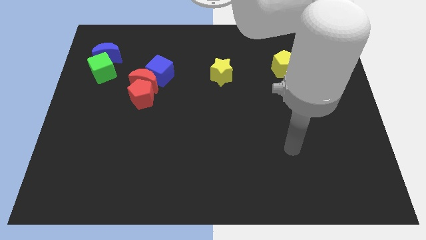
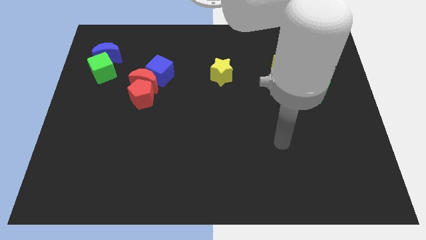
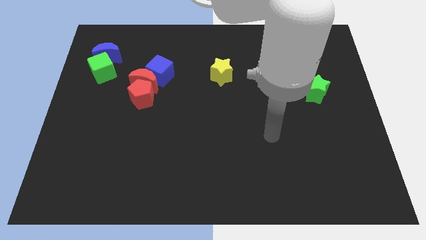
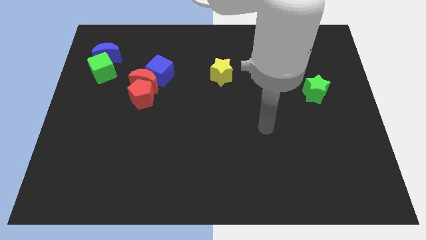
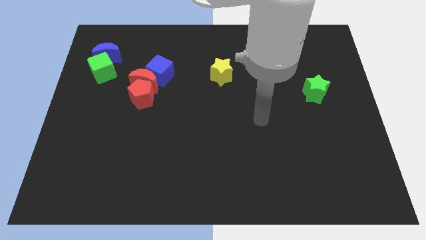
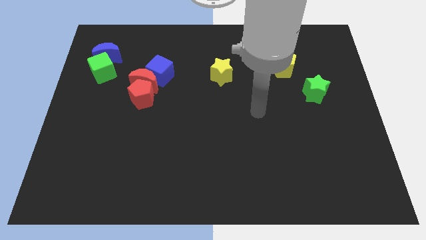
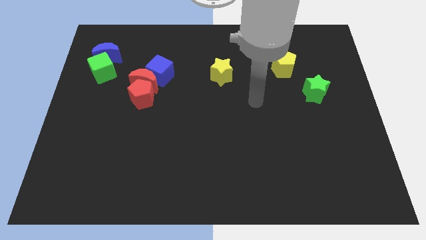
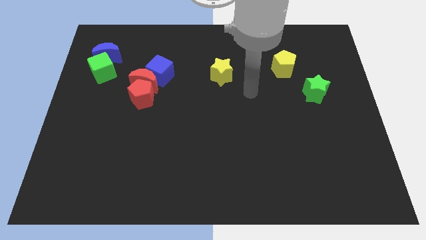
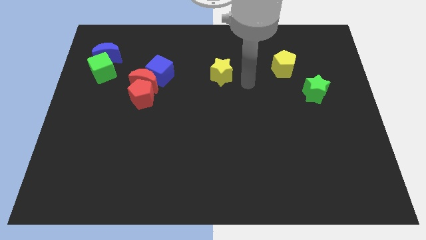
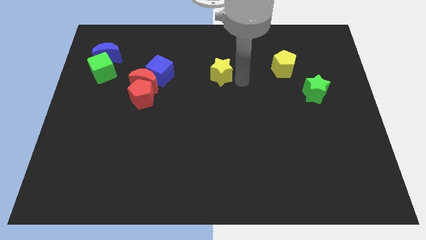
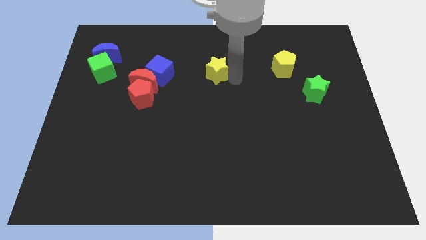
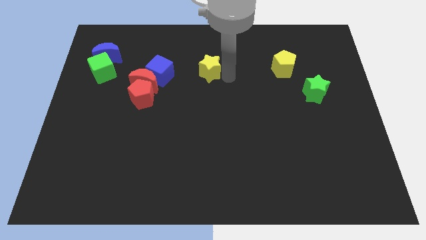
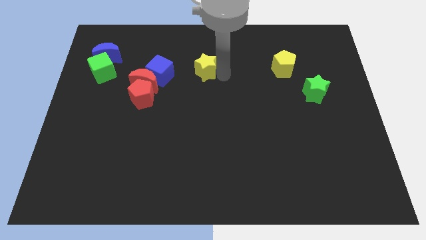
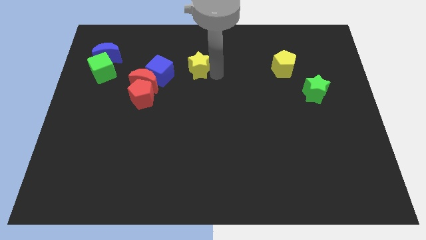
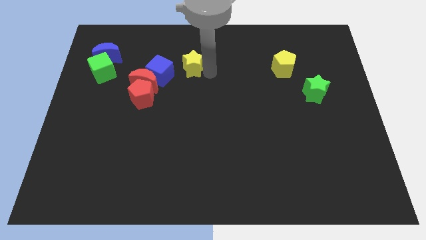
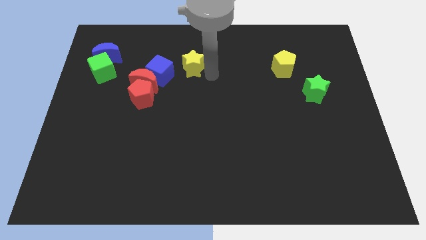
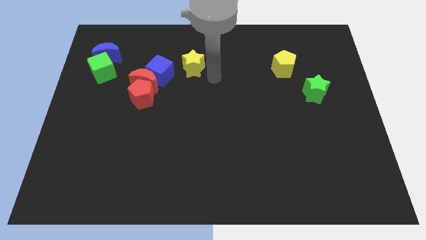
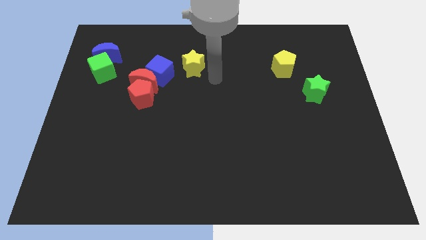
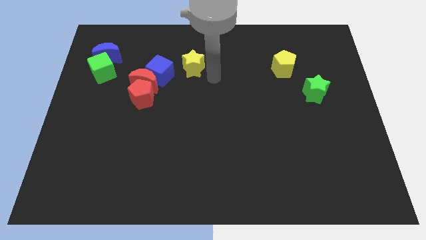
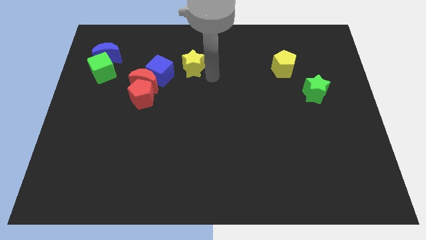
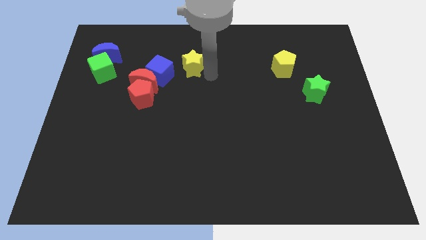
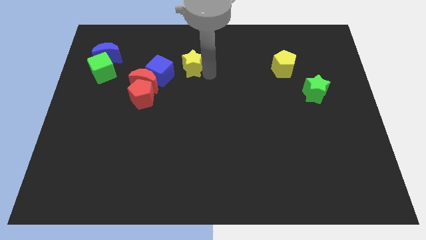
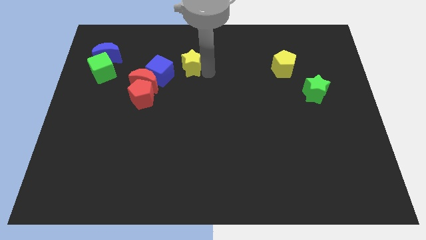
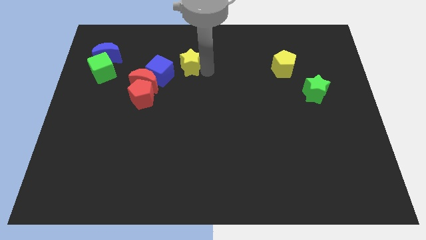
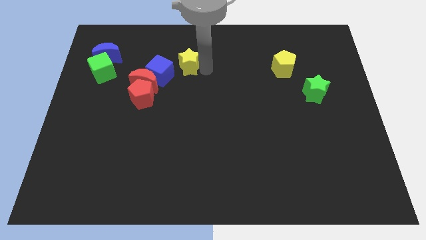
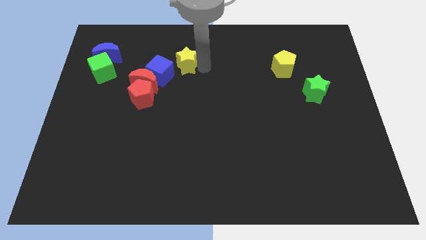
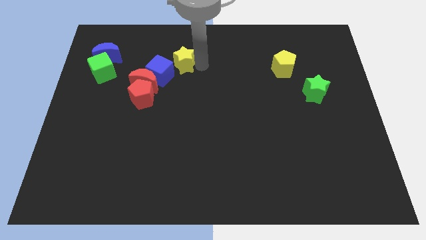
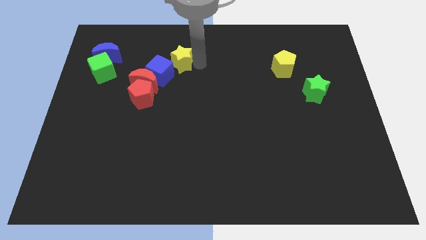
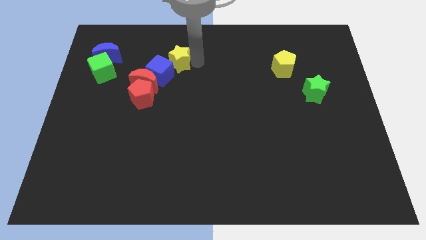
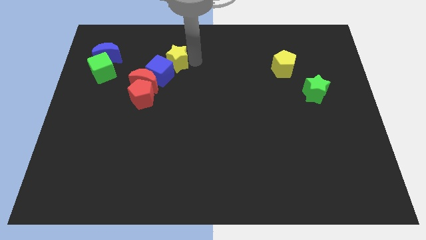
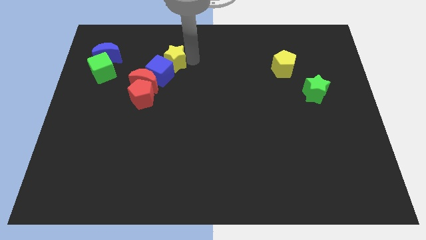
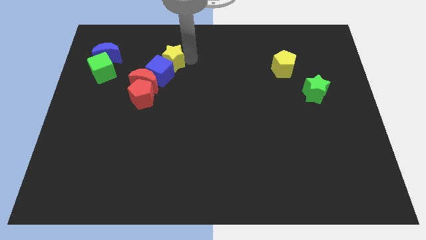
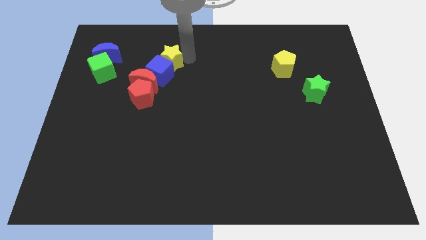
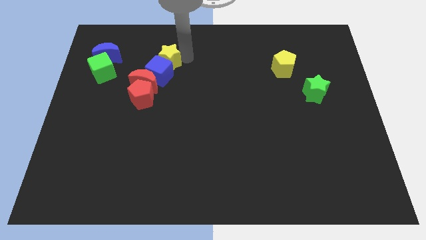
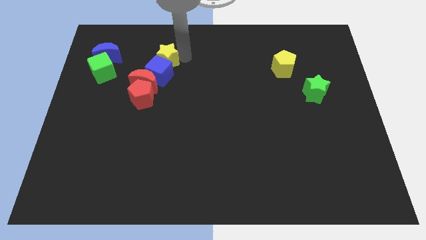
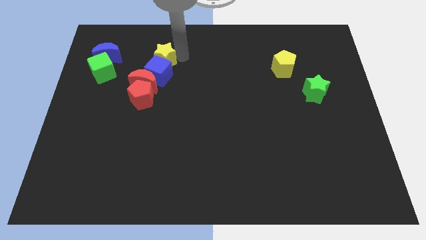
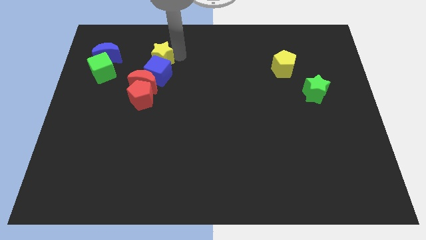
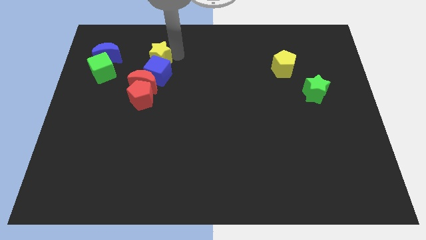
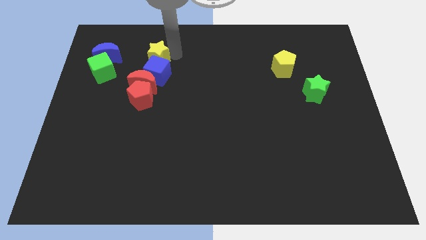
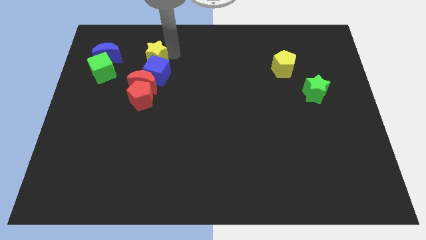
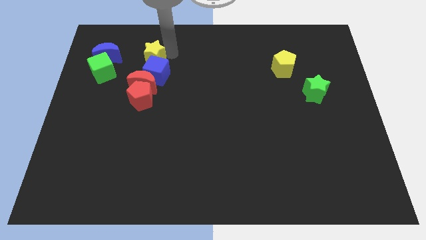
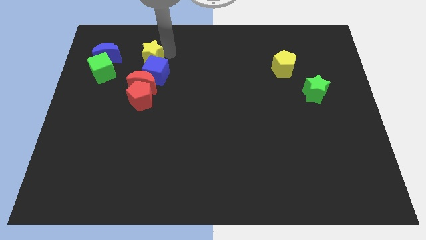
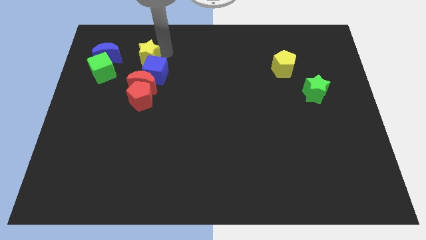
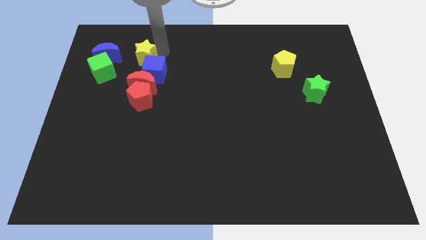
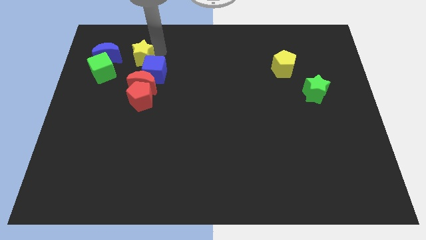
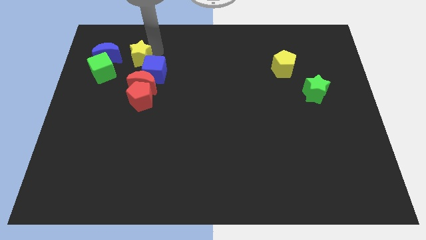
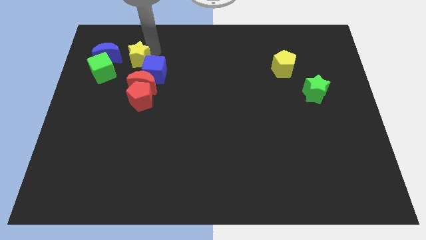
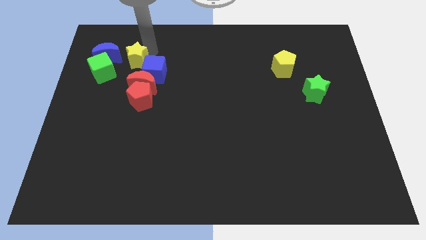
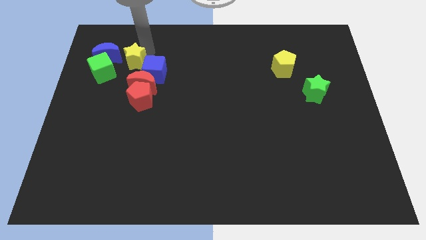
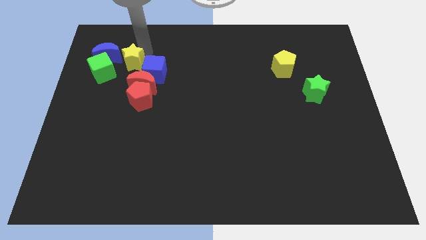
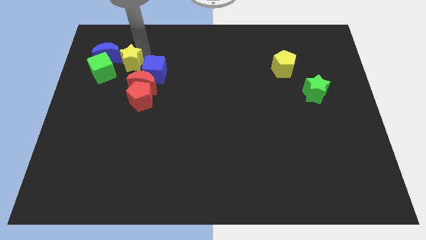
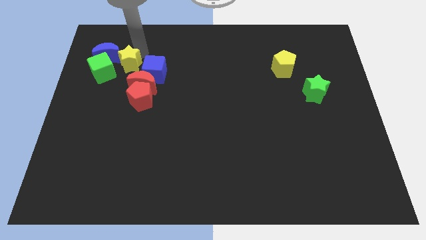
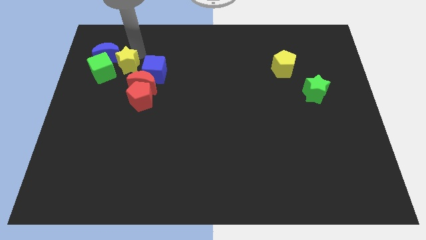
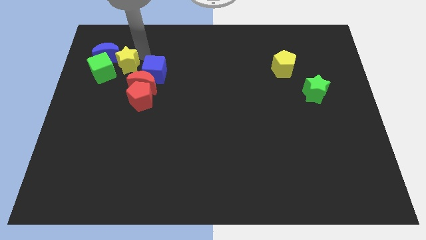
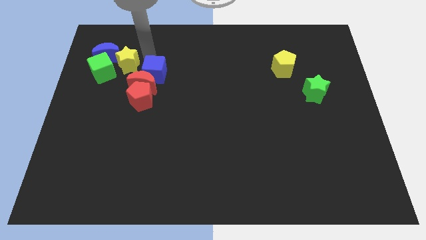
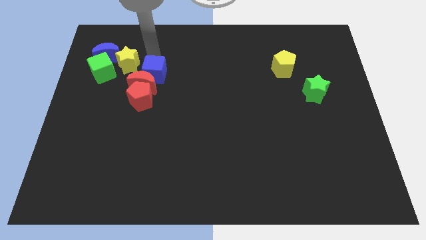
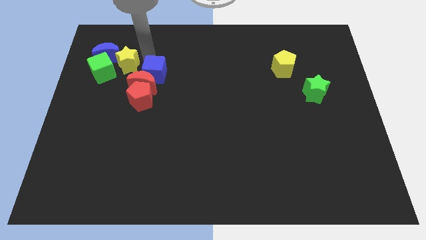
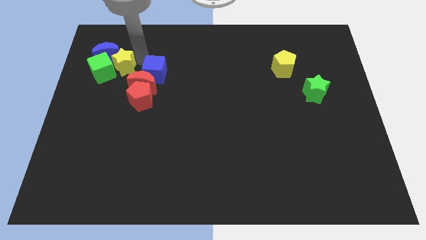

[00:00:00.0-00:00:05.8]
move the yellow star close to the green cube
